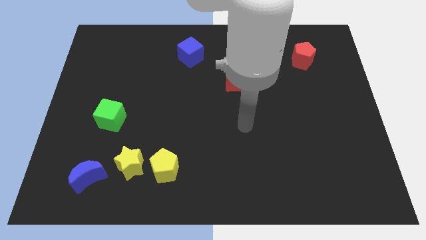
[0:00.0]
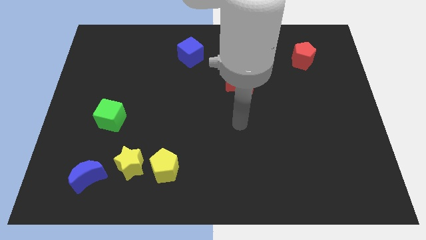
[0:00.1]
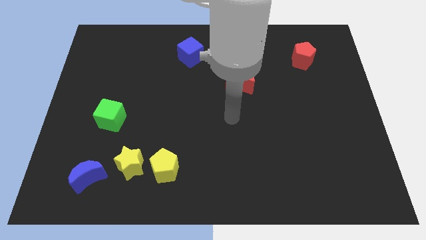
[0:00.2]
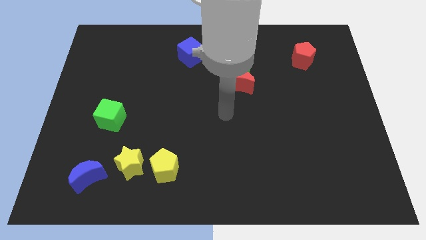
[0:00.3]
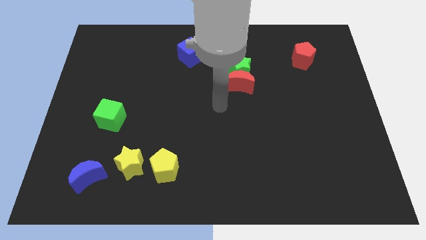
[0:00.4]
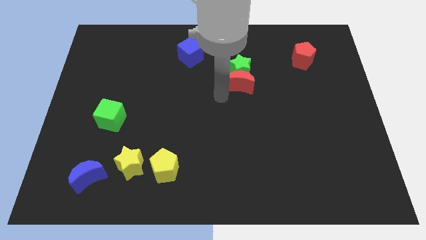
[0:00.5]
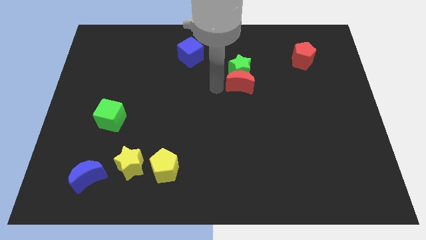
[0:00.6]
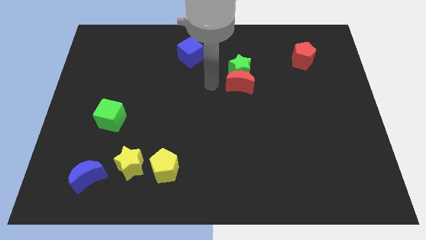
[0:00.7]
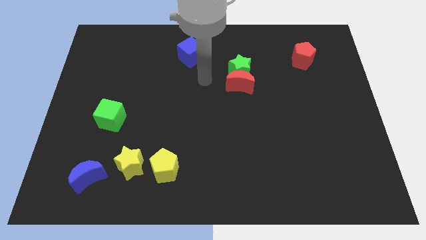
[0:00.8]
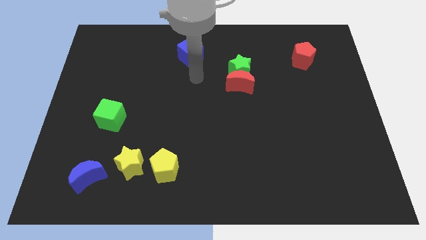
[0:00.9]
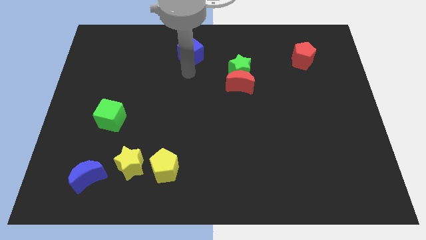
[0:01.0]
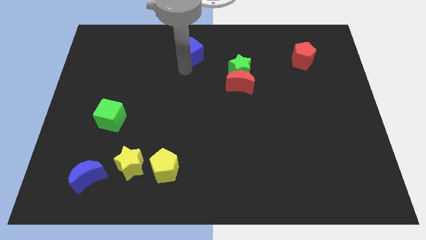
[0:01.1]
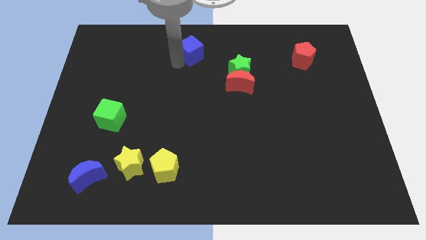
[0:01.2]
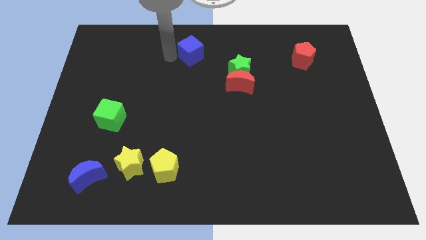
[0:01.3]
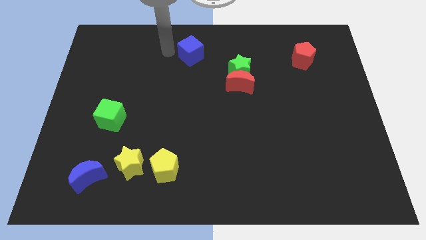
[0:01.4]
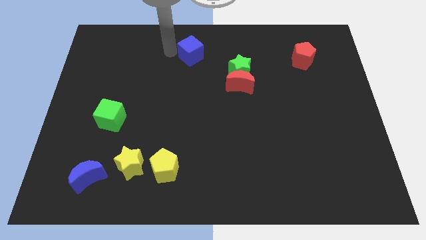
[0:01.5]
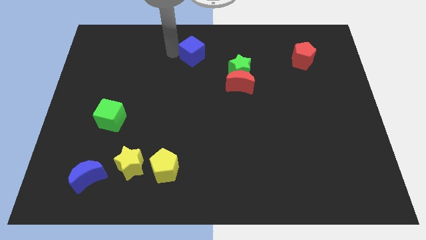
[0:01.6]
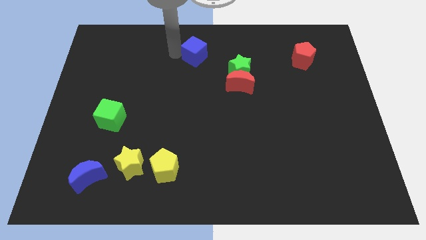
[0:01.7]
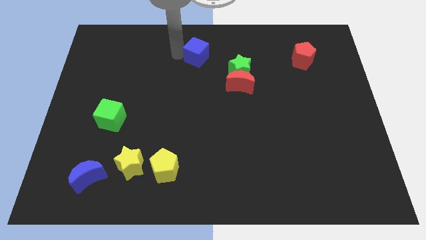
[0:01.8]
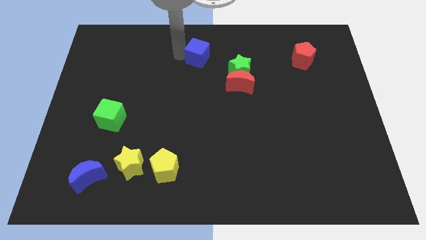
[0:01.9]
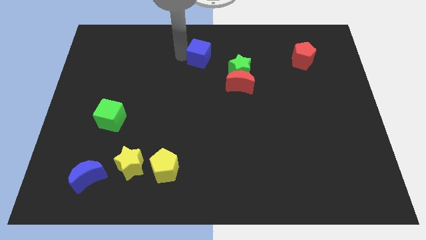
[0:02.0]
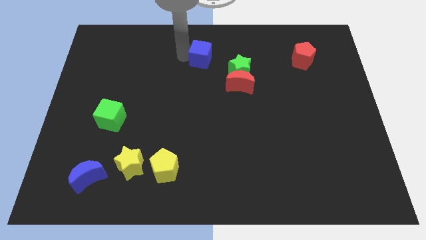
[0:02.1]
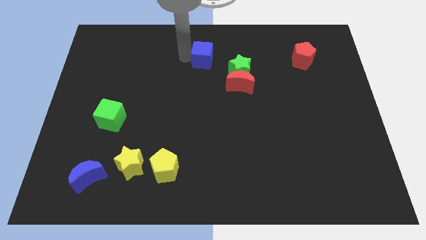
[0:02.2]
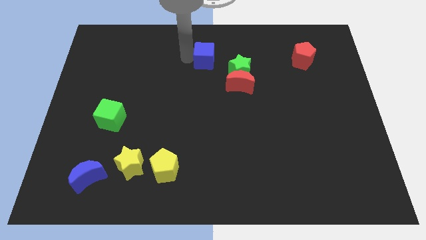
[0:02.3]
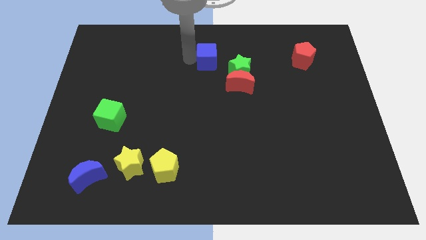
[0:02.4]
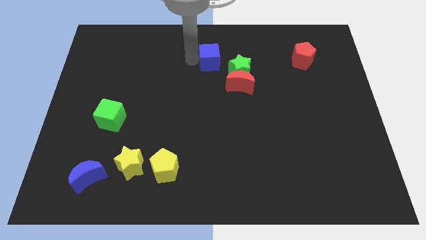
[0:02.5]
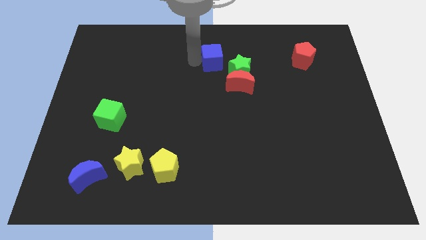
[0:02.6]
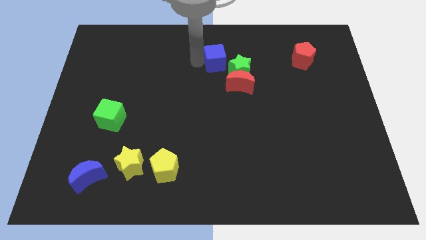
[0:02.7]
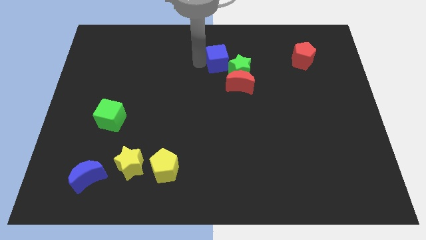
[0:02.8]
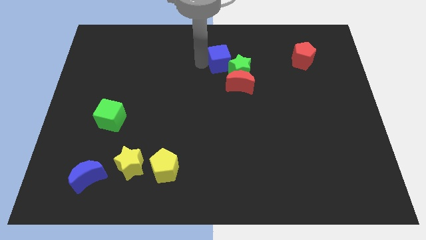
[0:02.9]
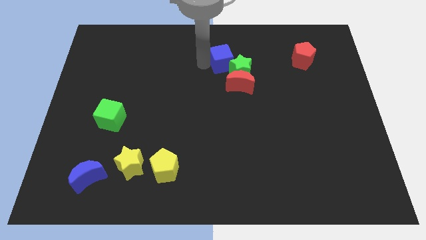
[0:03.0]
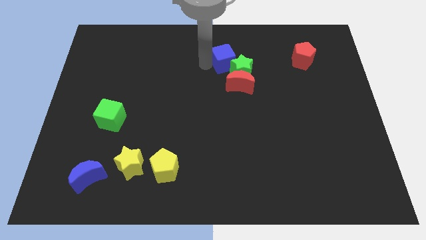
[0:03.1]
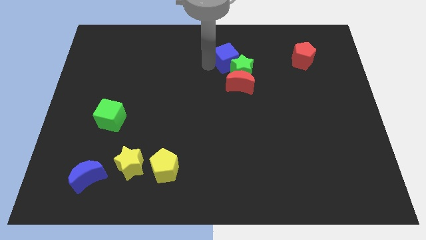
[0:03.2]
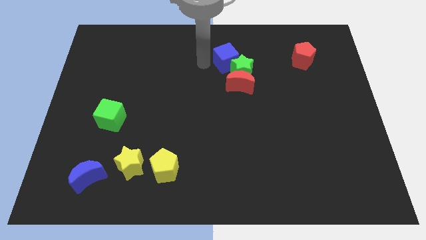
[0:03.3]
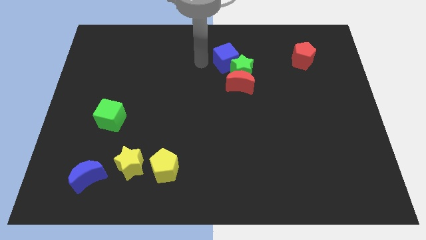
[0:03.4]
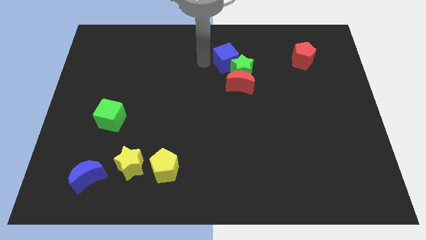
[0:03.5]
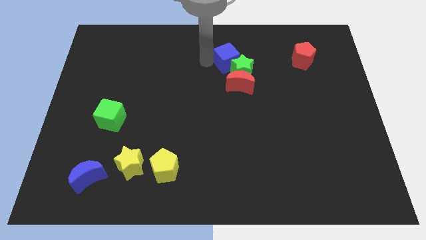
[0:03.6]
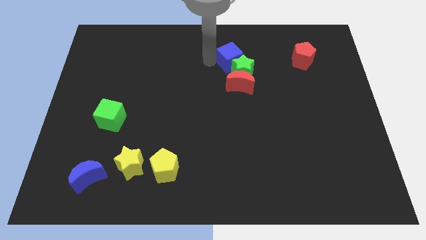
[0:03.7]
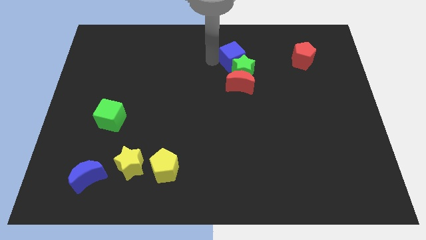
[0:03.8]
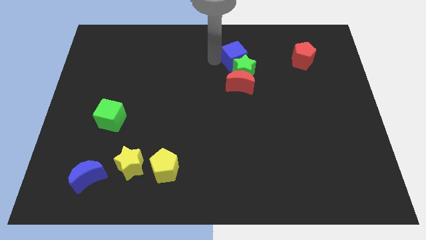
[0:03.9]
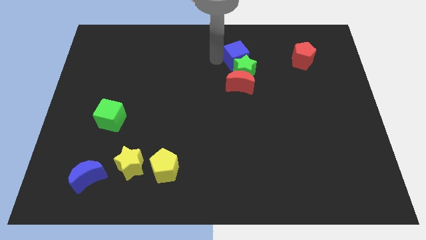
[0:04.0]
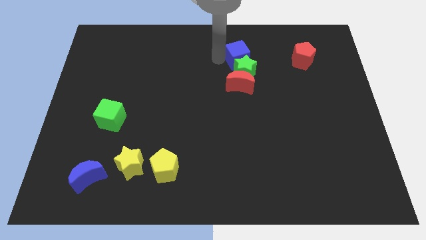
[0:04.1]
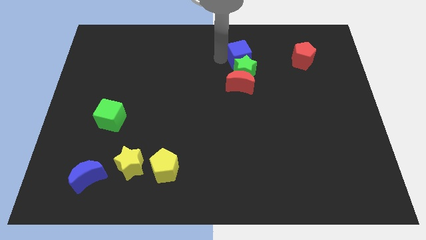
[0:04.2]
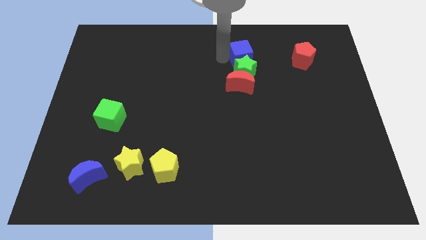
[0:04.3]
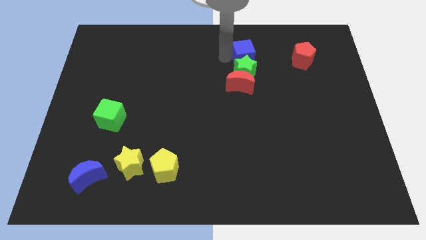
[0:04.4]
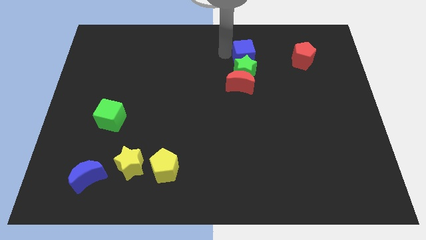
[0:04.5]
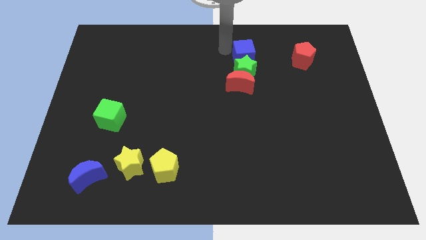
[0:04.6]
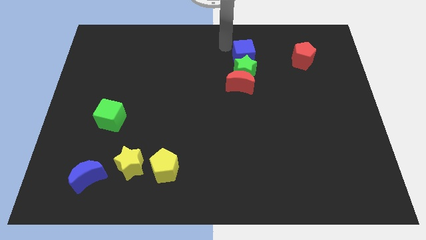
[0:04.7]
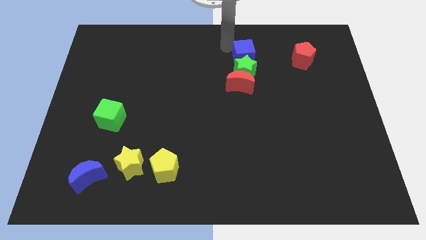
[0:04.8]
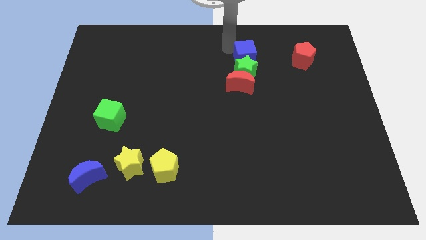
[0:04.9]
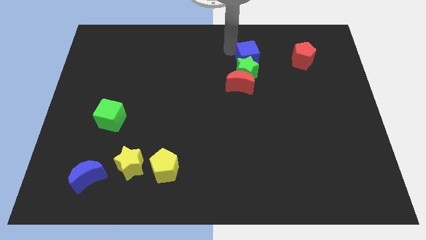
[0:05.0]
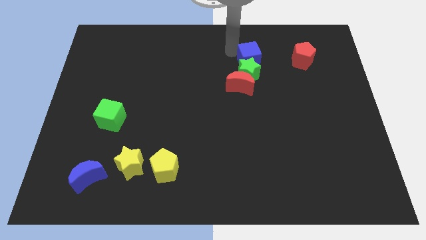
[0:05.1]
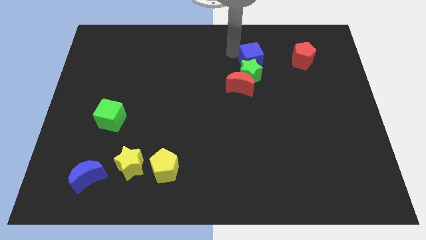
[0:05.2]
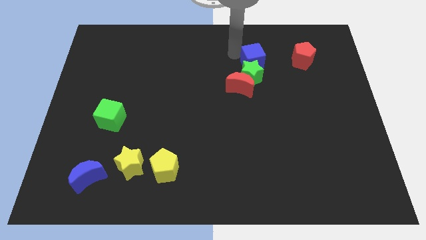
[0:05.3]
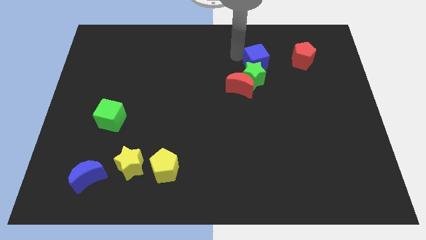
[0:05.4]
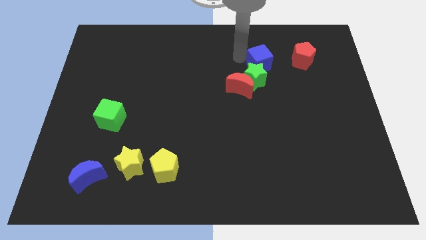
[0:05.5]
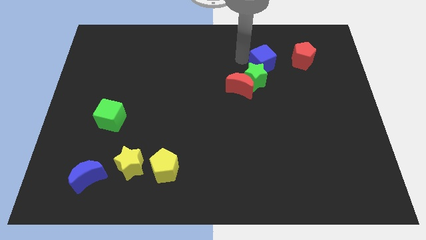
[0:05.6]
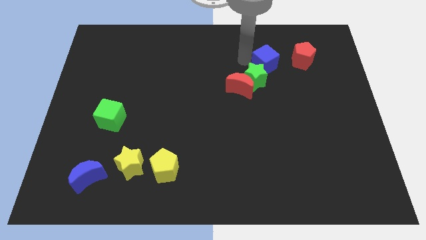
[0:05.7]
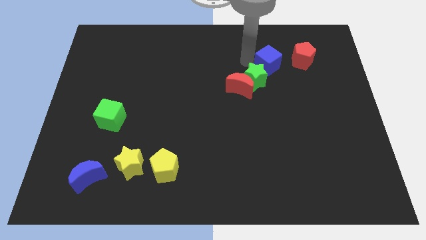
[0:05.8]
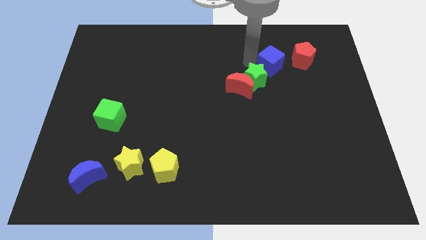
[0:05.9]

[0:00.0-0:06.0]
move the blue cube to the bottom left of the red pentagon
